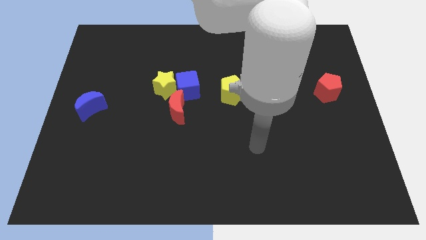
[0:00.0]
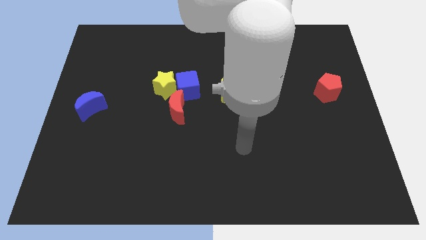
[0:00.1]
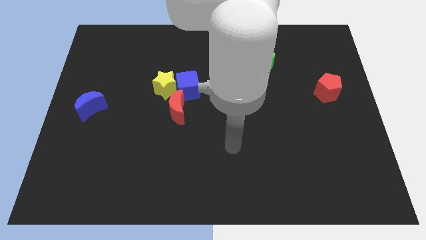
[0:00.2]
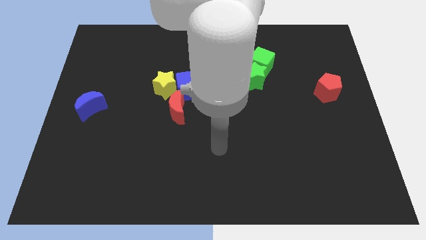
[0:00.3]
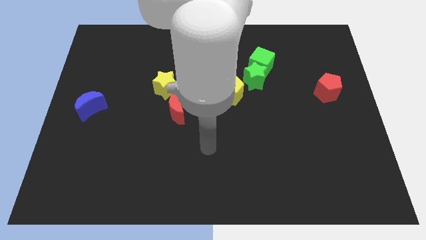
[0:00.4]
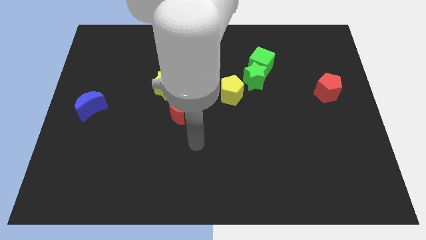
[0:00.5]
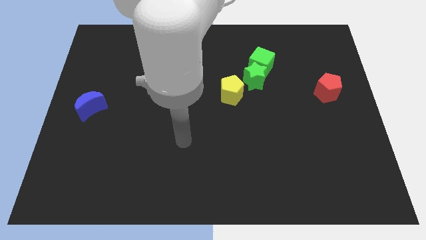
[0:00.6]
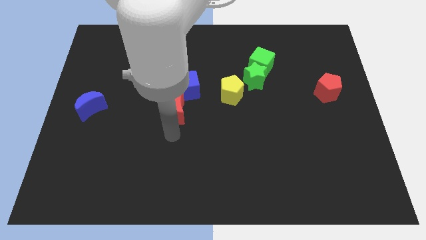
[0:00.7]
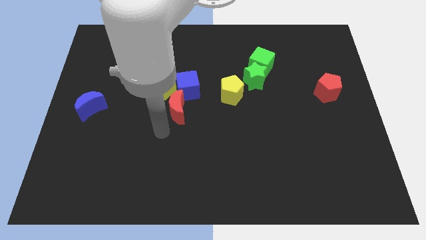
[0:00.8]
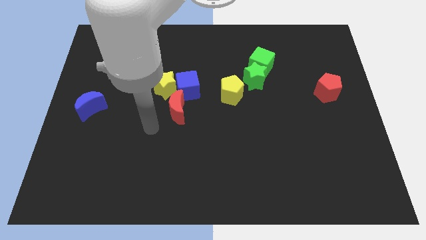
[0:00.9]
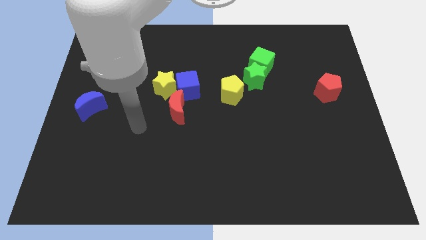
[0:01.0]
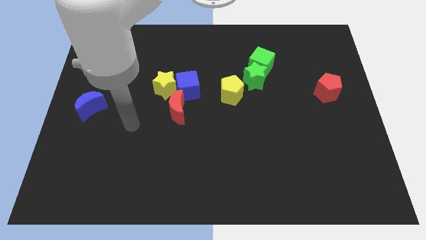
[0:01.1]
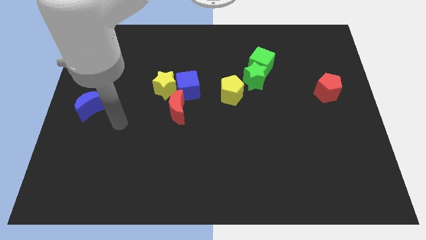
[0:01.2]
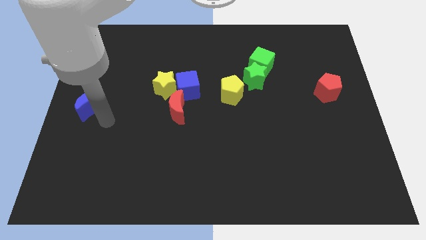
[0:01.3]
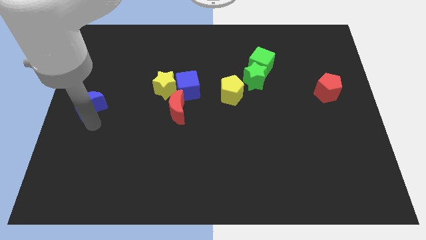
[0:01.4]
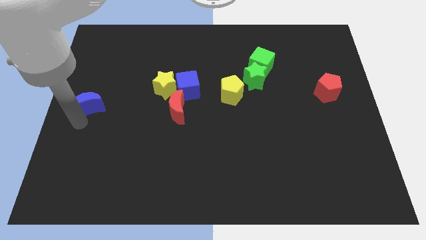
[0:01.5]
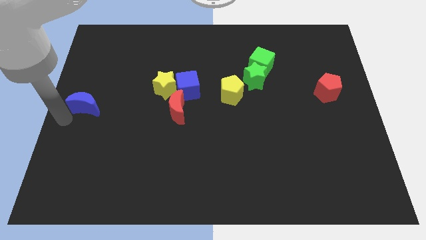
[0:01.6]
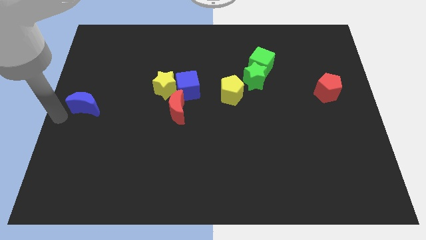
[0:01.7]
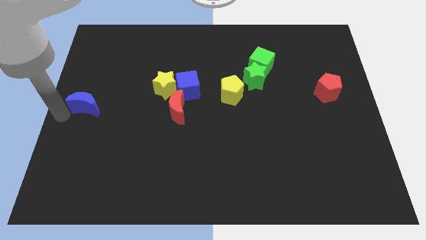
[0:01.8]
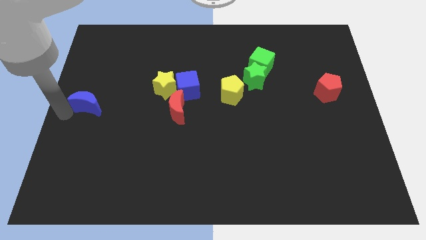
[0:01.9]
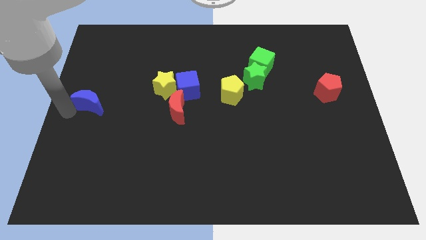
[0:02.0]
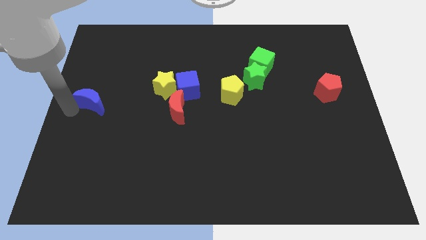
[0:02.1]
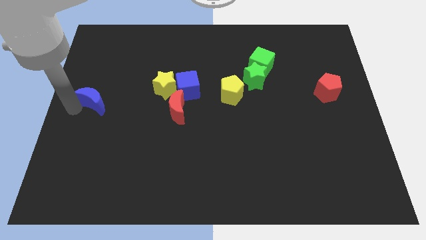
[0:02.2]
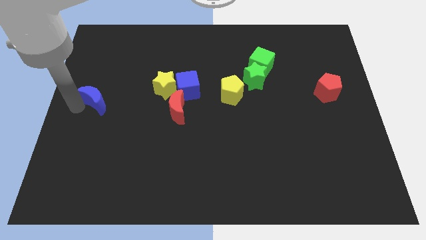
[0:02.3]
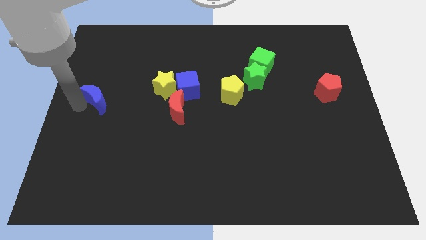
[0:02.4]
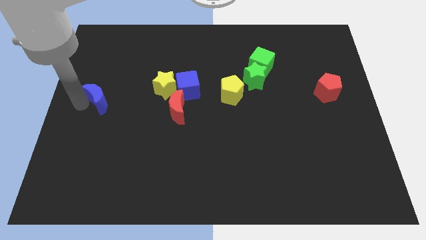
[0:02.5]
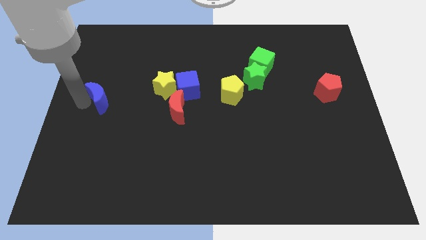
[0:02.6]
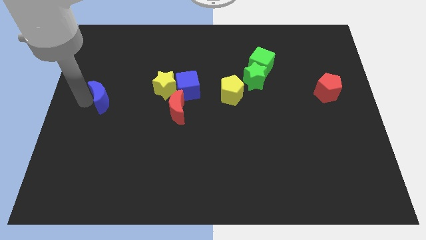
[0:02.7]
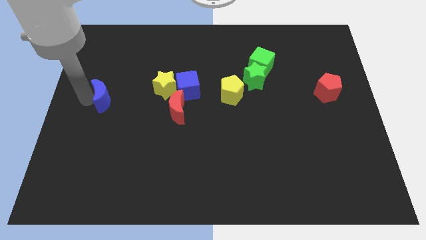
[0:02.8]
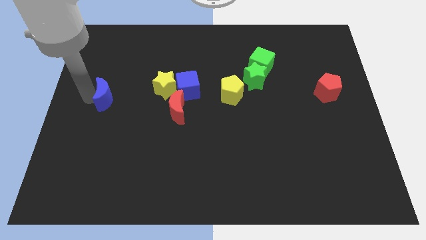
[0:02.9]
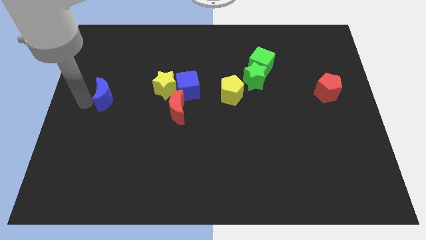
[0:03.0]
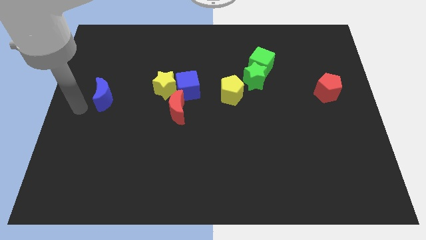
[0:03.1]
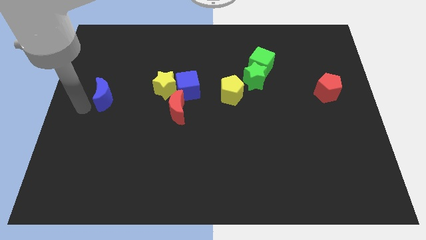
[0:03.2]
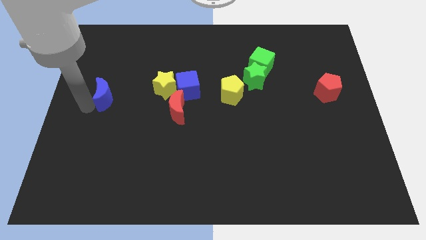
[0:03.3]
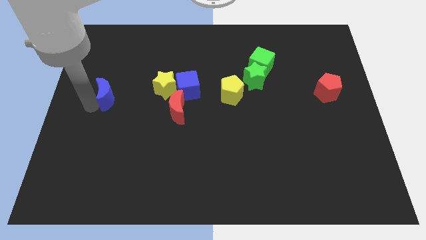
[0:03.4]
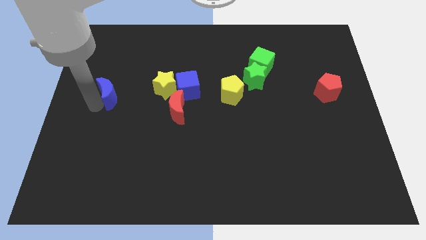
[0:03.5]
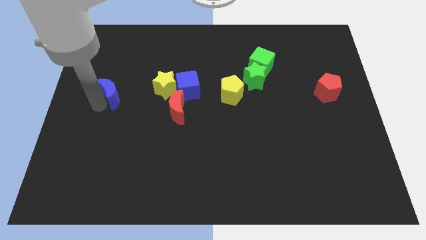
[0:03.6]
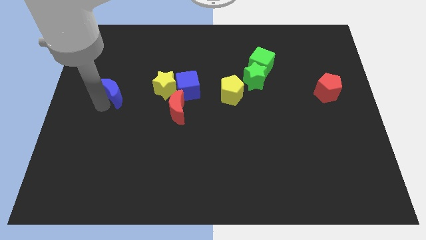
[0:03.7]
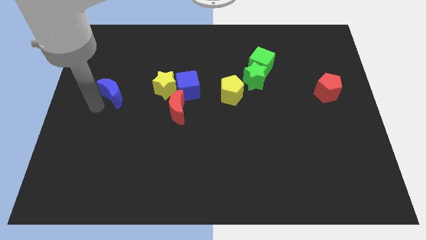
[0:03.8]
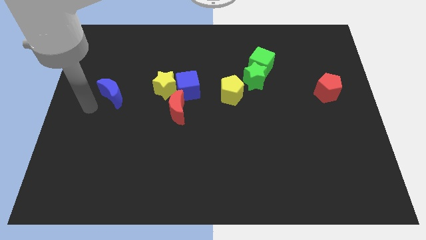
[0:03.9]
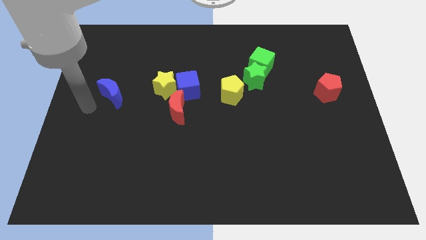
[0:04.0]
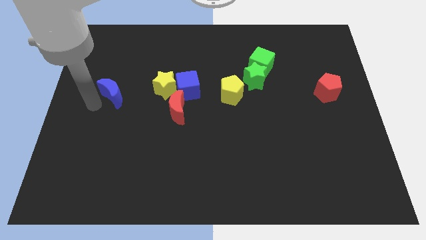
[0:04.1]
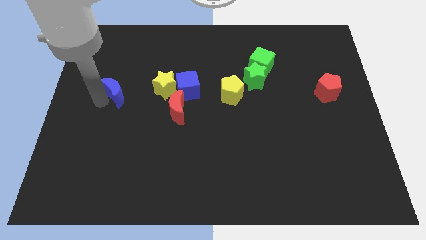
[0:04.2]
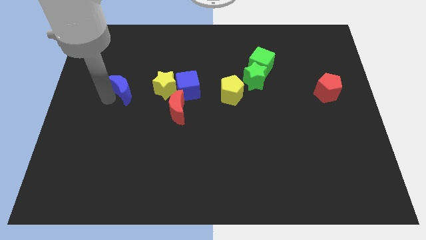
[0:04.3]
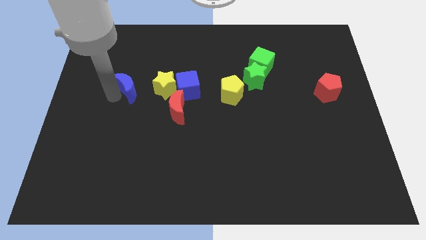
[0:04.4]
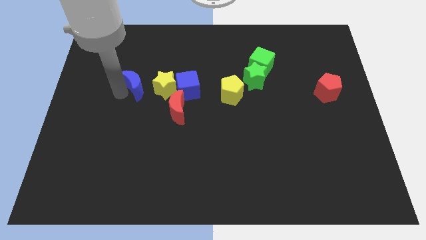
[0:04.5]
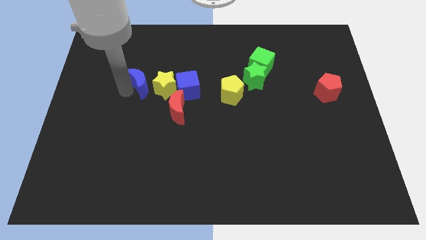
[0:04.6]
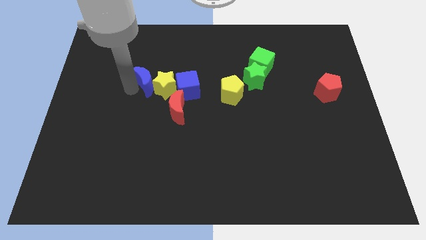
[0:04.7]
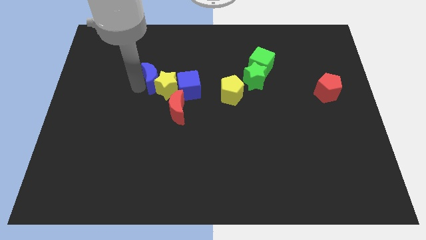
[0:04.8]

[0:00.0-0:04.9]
slide the blue moon to the top left of the blue cube

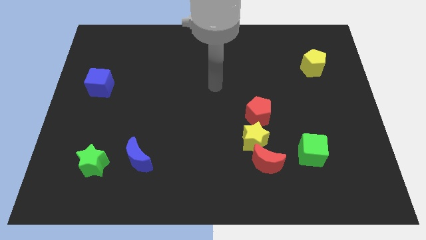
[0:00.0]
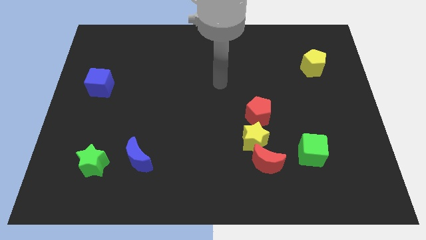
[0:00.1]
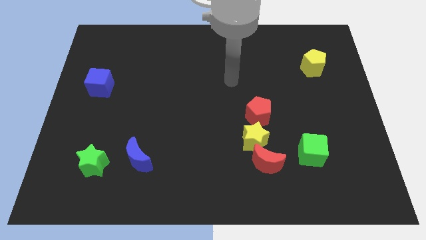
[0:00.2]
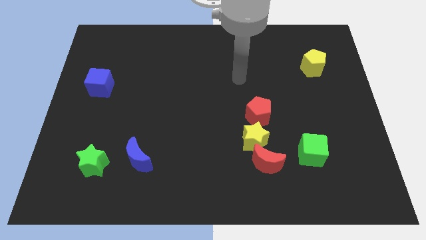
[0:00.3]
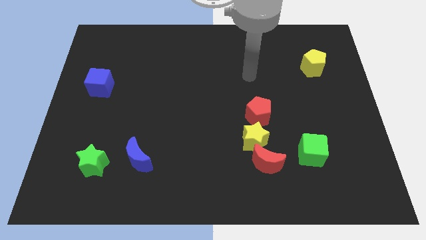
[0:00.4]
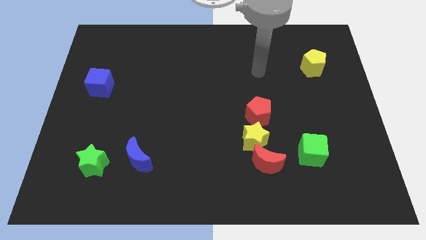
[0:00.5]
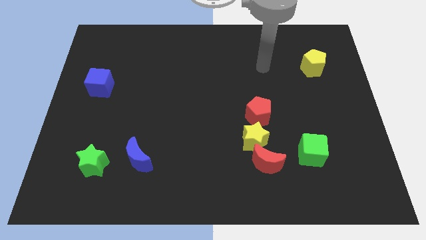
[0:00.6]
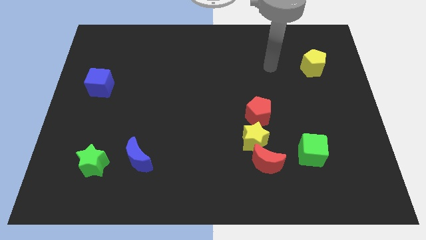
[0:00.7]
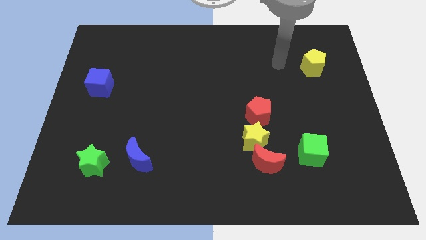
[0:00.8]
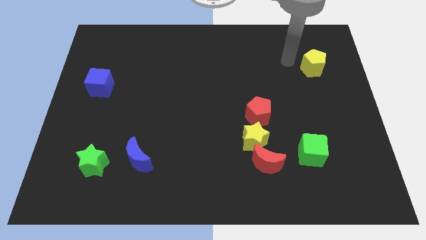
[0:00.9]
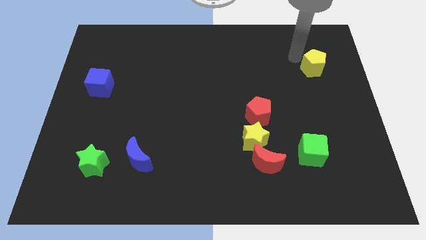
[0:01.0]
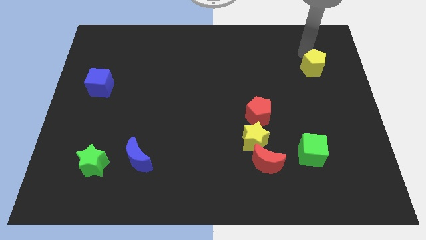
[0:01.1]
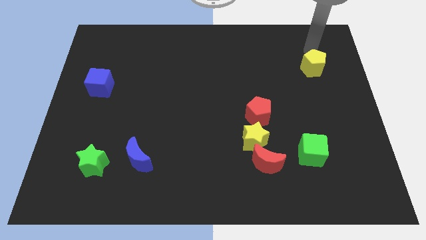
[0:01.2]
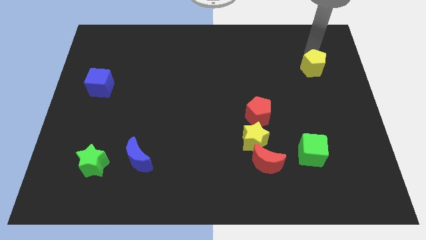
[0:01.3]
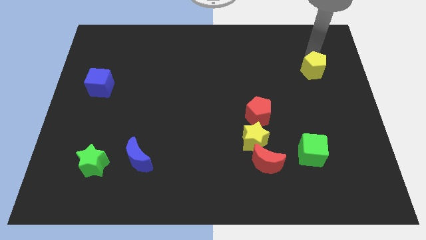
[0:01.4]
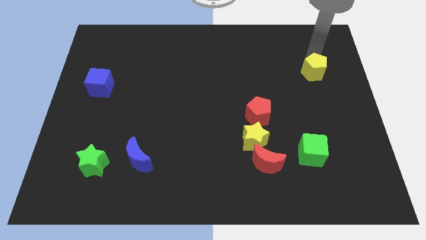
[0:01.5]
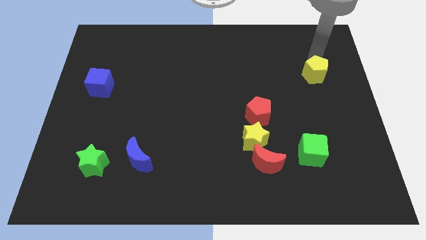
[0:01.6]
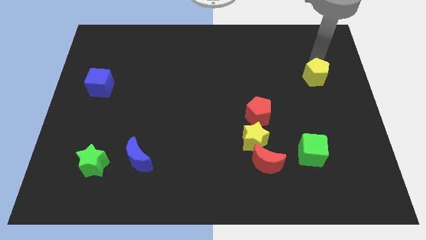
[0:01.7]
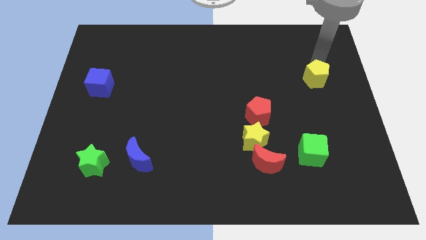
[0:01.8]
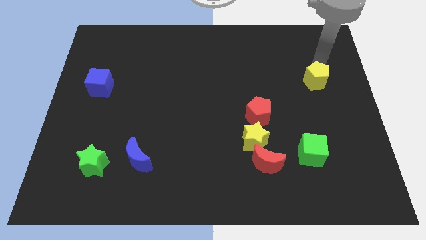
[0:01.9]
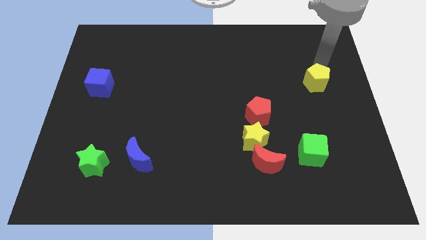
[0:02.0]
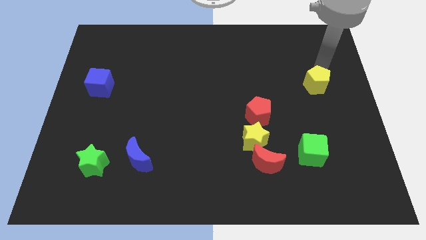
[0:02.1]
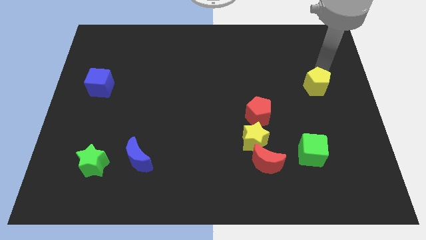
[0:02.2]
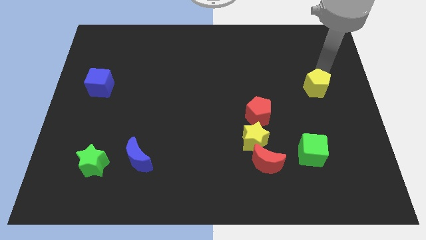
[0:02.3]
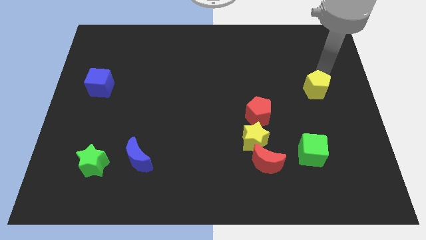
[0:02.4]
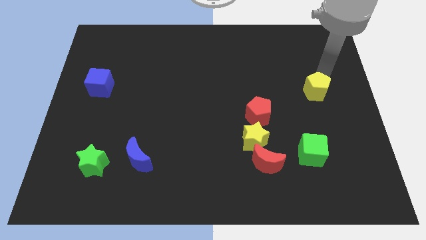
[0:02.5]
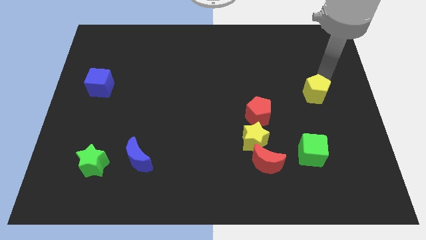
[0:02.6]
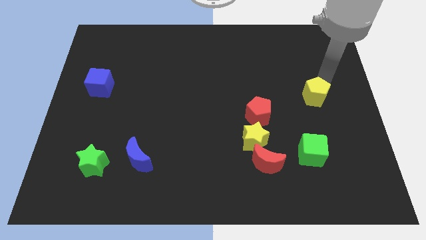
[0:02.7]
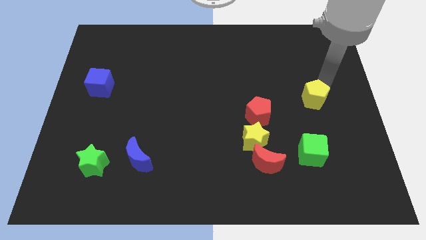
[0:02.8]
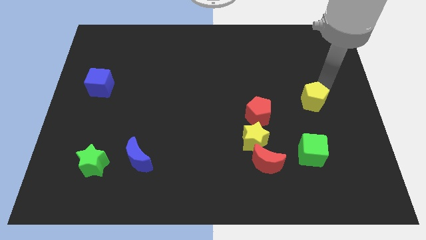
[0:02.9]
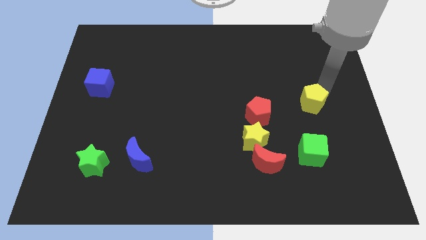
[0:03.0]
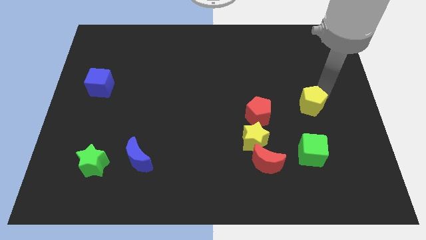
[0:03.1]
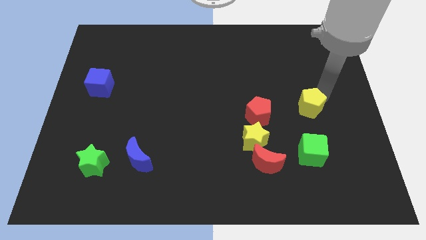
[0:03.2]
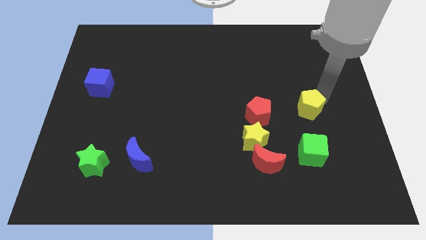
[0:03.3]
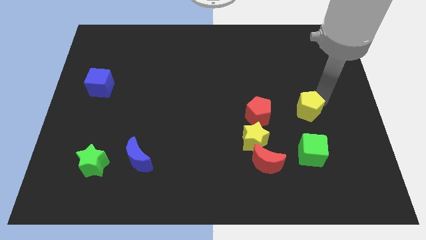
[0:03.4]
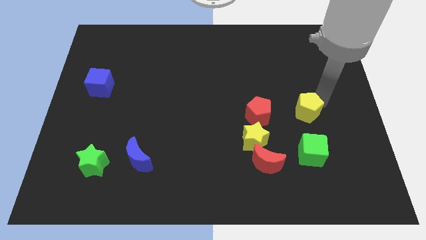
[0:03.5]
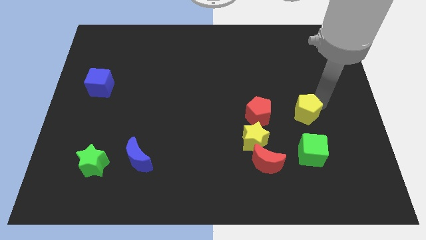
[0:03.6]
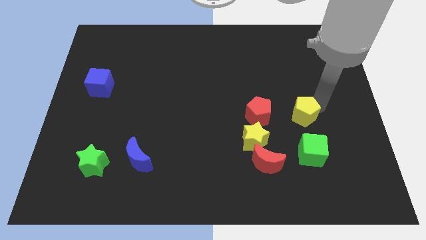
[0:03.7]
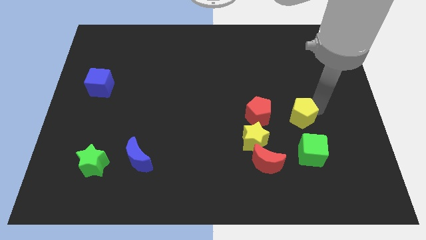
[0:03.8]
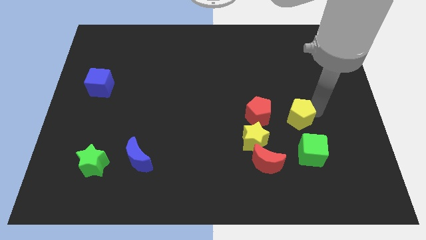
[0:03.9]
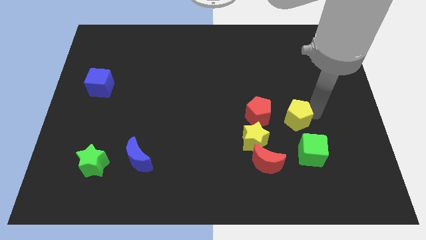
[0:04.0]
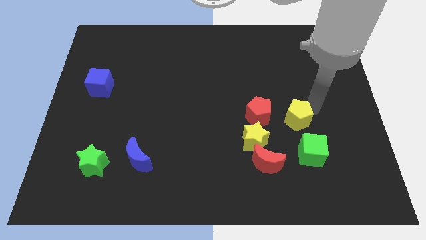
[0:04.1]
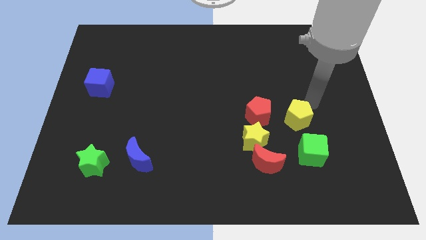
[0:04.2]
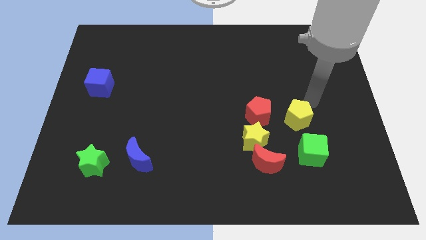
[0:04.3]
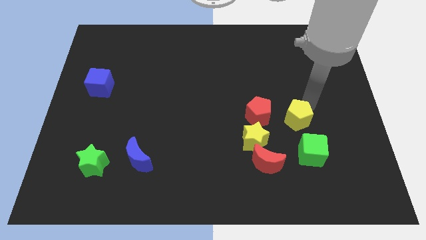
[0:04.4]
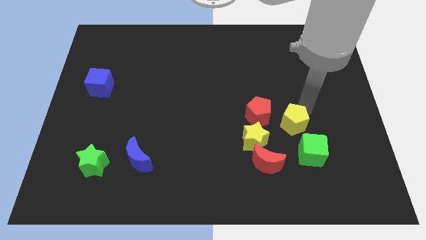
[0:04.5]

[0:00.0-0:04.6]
push the yellow pentagon to the bottom right of the red pentagon
